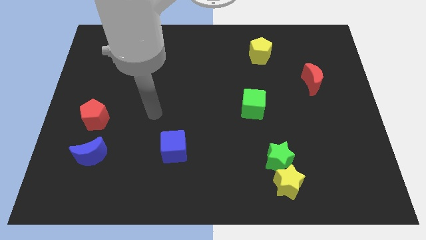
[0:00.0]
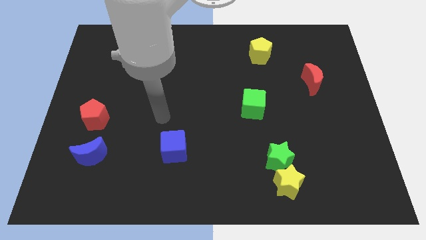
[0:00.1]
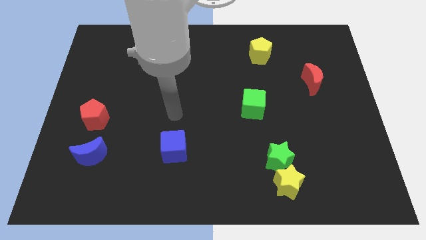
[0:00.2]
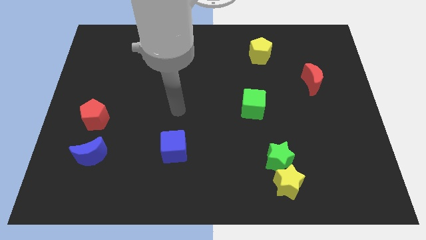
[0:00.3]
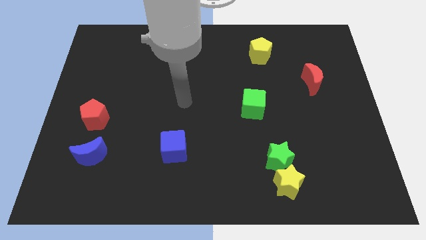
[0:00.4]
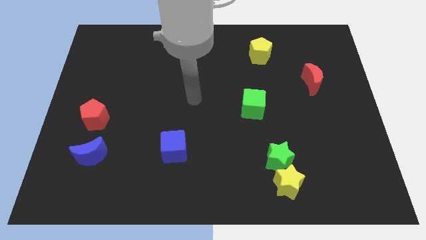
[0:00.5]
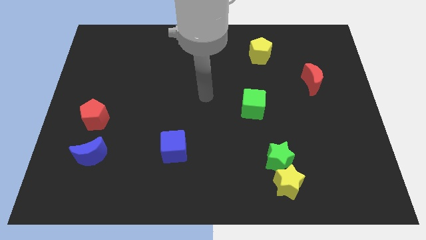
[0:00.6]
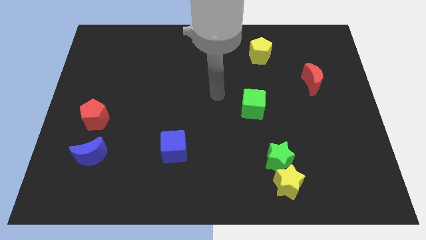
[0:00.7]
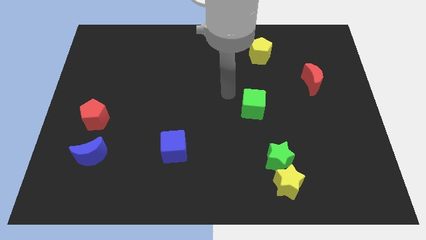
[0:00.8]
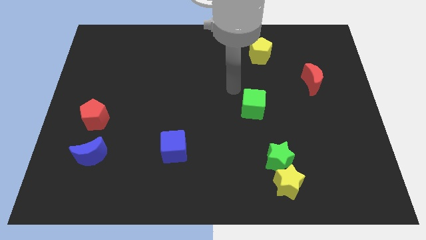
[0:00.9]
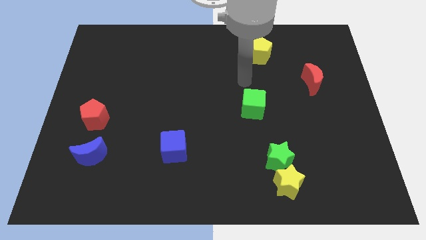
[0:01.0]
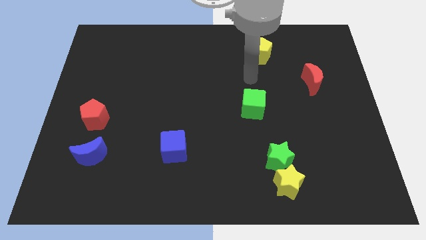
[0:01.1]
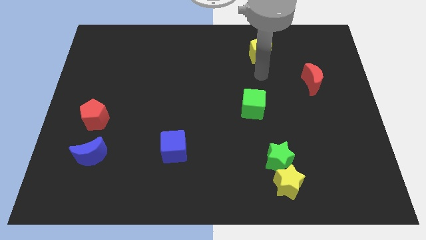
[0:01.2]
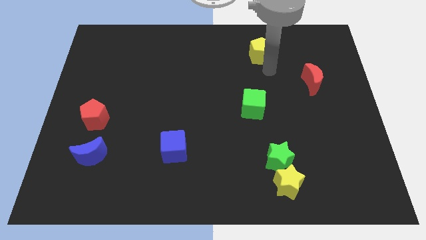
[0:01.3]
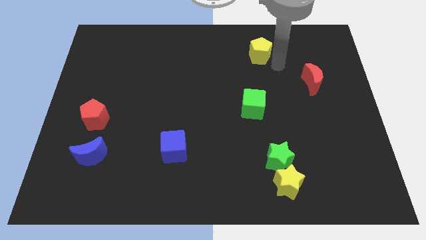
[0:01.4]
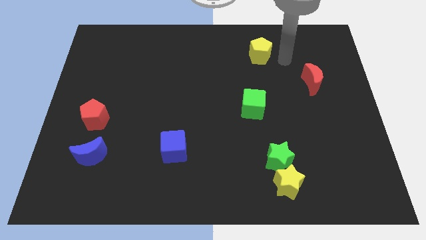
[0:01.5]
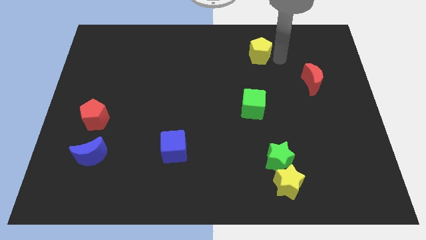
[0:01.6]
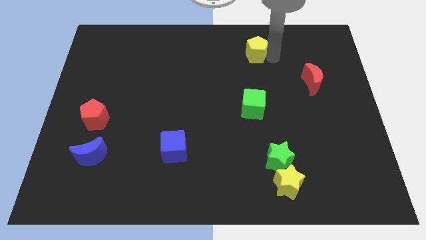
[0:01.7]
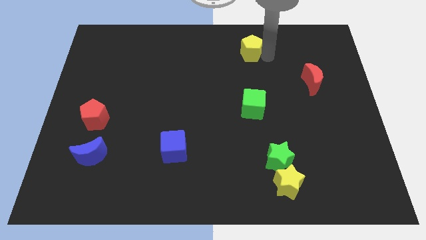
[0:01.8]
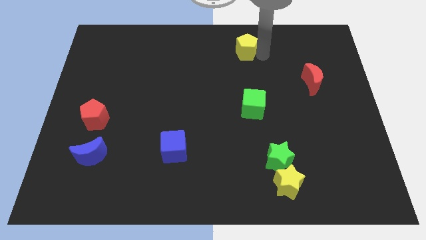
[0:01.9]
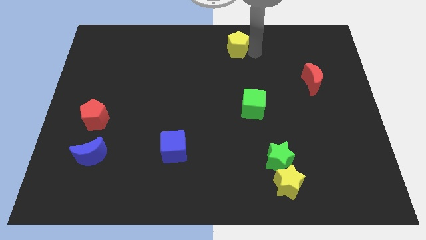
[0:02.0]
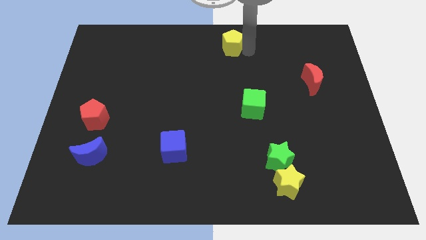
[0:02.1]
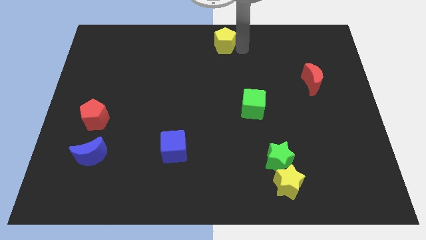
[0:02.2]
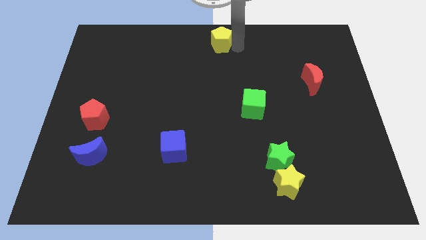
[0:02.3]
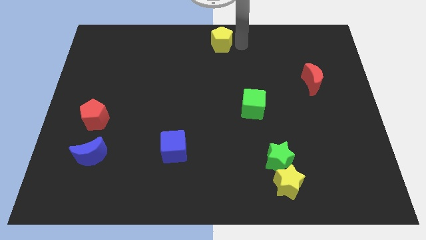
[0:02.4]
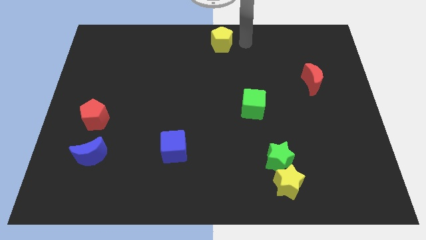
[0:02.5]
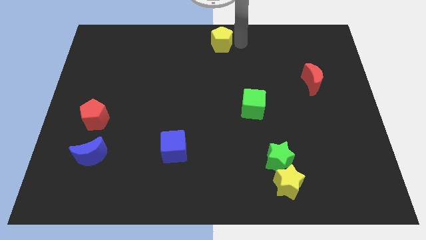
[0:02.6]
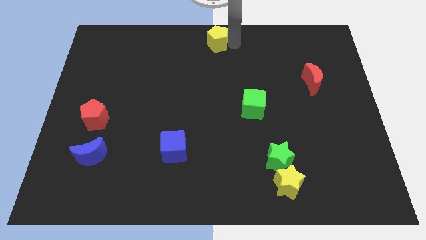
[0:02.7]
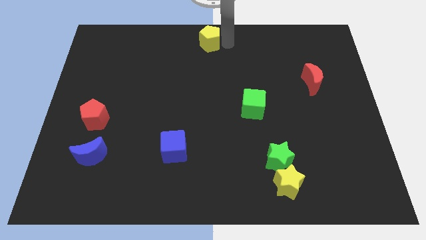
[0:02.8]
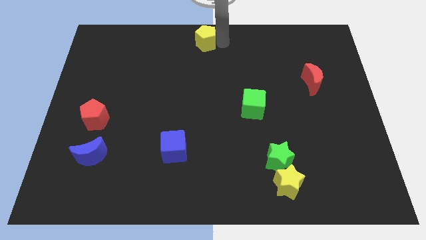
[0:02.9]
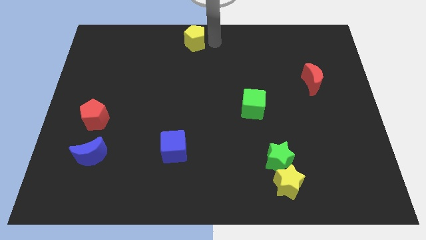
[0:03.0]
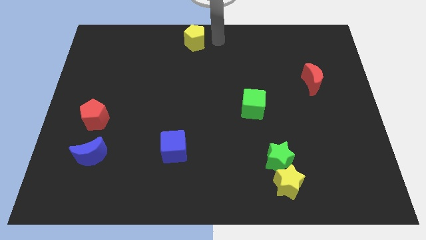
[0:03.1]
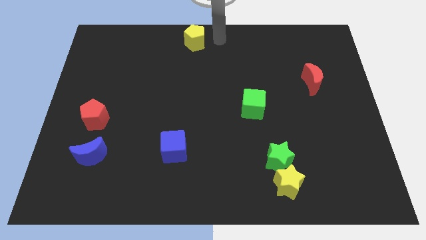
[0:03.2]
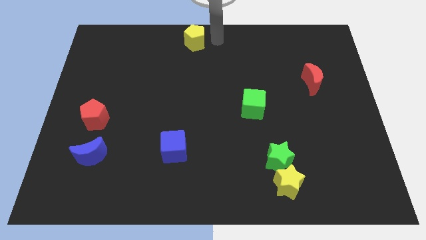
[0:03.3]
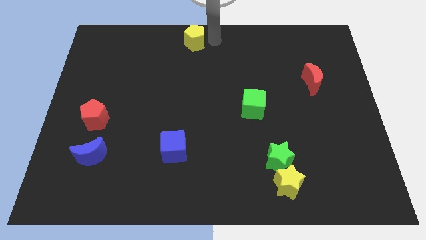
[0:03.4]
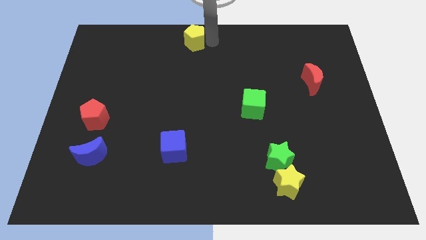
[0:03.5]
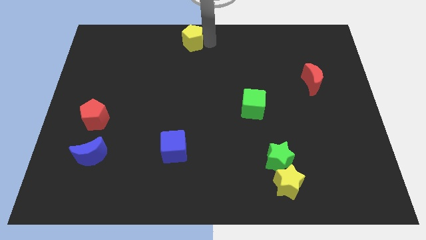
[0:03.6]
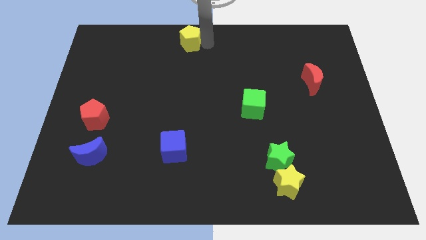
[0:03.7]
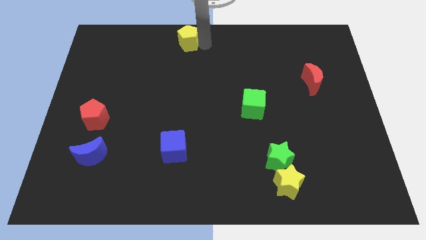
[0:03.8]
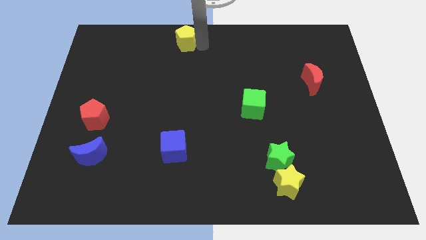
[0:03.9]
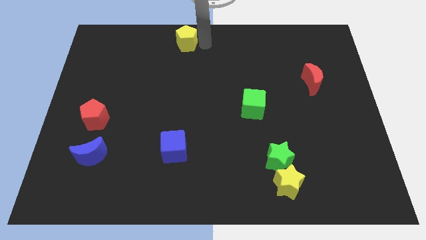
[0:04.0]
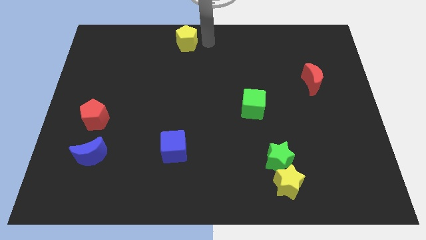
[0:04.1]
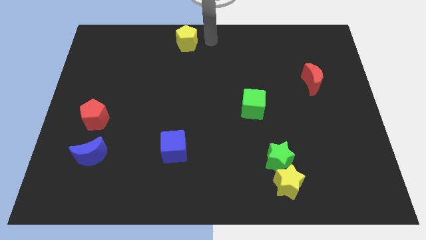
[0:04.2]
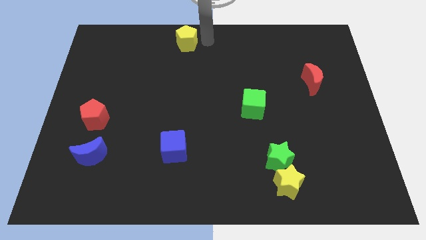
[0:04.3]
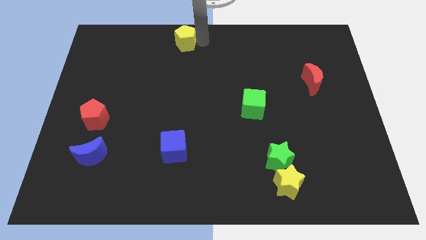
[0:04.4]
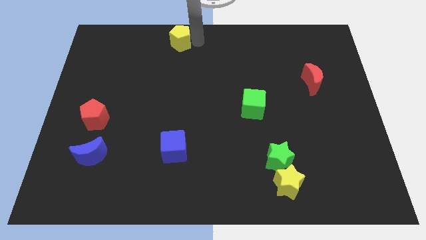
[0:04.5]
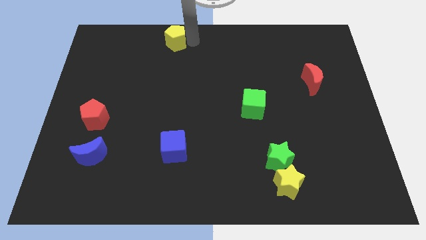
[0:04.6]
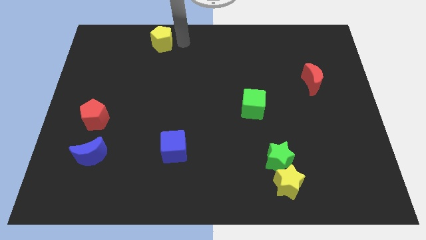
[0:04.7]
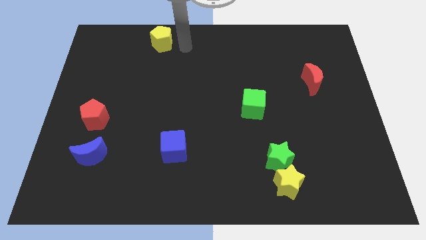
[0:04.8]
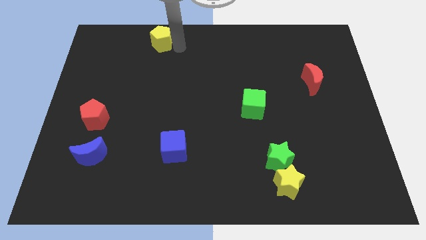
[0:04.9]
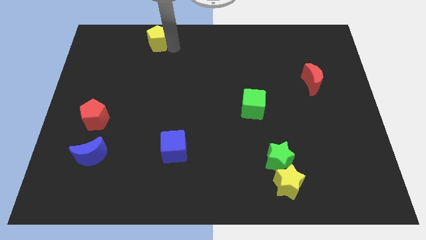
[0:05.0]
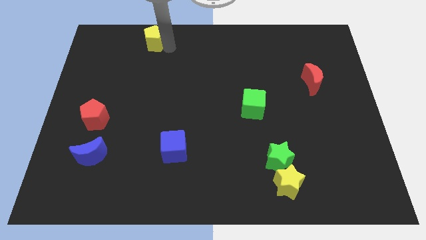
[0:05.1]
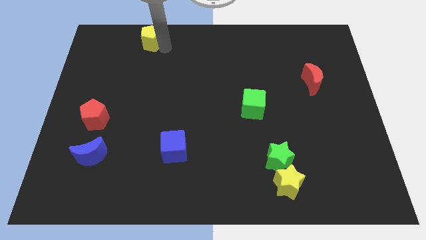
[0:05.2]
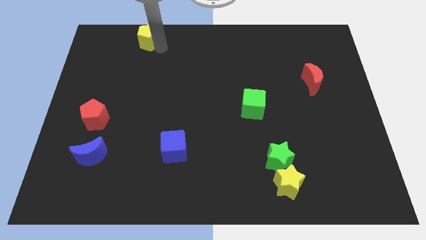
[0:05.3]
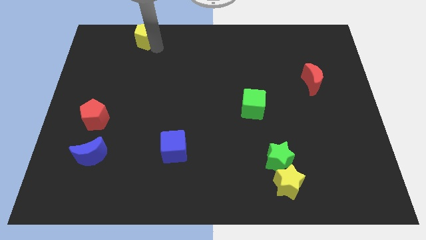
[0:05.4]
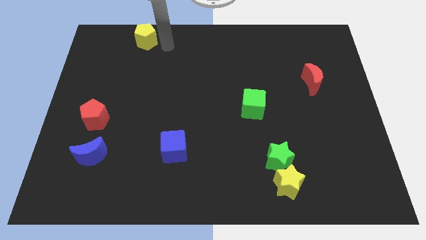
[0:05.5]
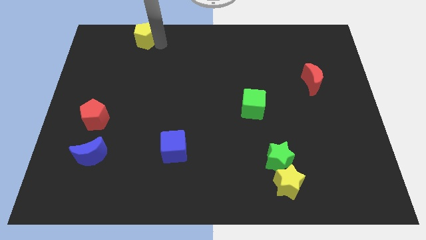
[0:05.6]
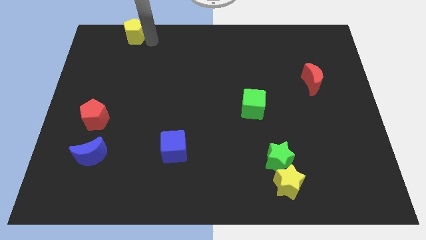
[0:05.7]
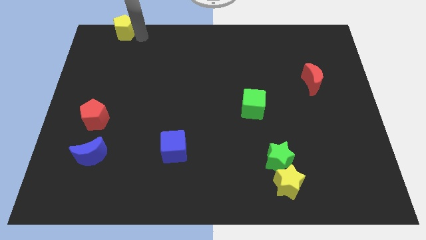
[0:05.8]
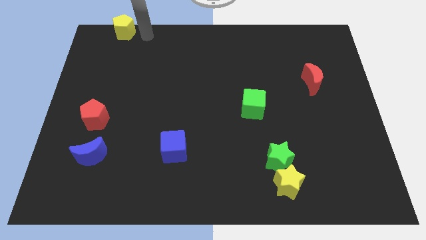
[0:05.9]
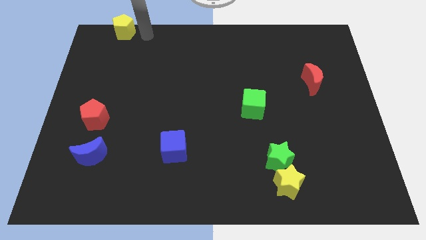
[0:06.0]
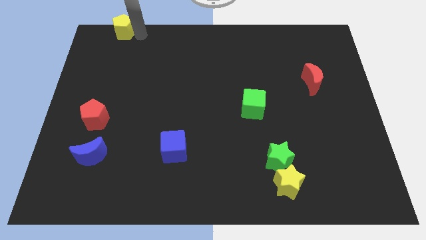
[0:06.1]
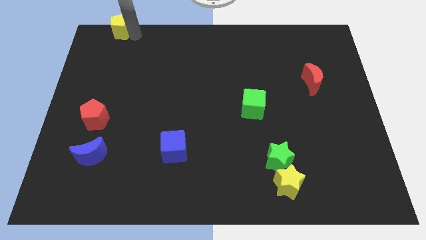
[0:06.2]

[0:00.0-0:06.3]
push the yellow pentagon to the top left corner
